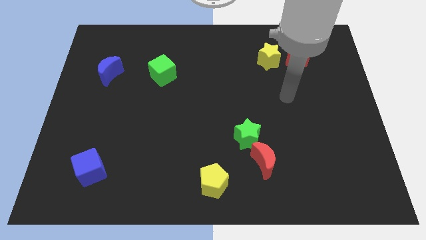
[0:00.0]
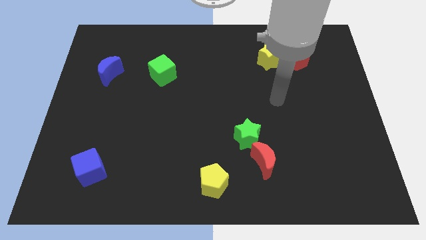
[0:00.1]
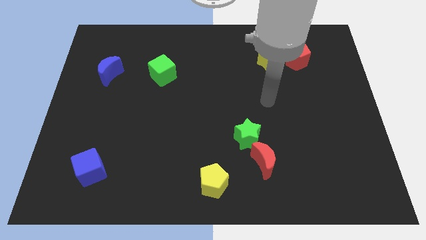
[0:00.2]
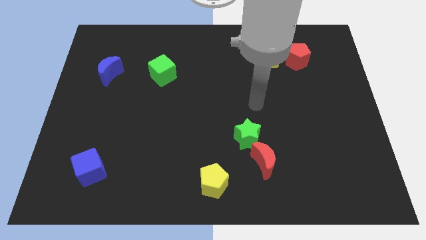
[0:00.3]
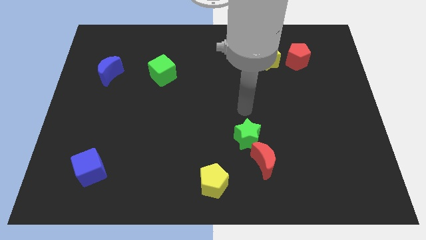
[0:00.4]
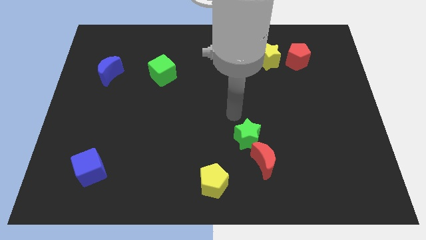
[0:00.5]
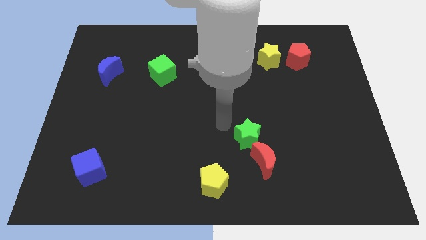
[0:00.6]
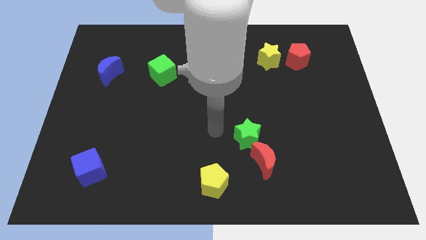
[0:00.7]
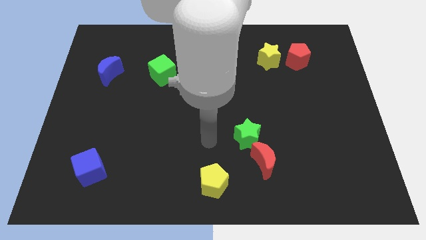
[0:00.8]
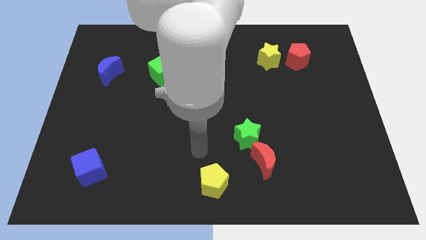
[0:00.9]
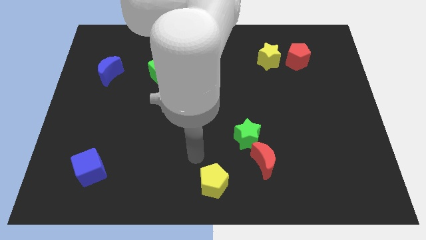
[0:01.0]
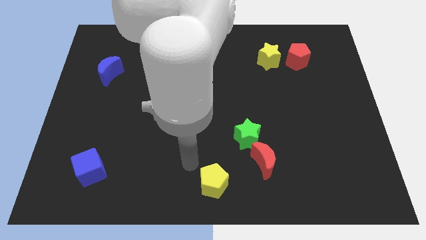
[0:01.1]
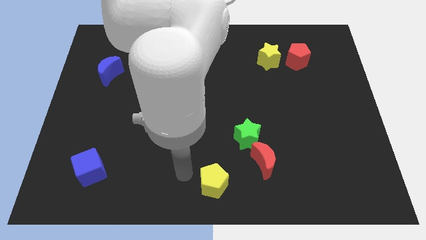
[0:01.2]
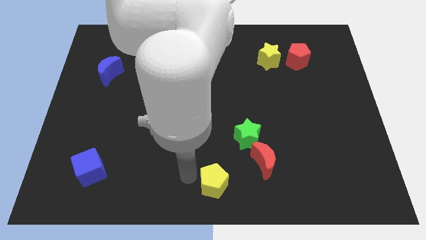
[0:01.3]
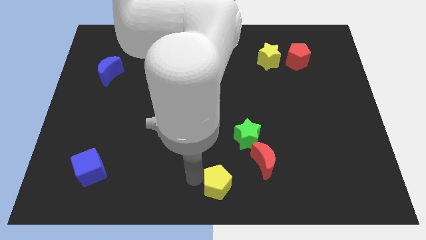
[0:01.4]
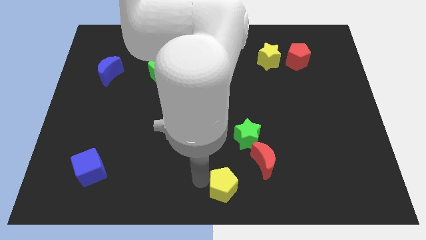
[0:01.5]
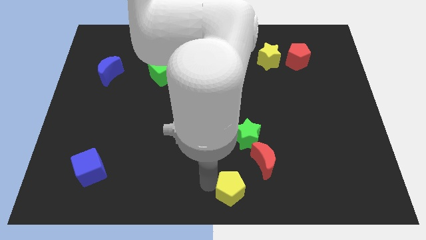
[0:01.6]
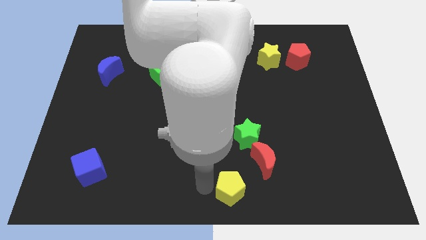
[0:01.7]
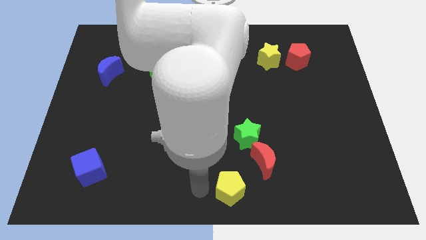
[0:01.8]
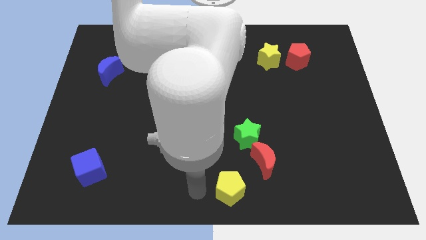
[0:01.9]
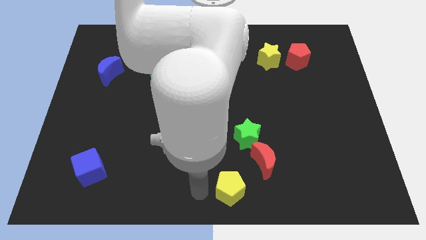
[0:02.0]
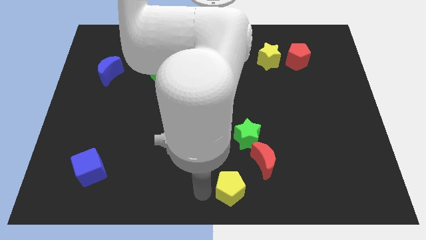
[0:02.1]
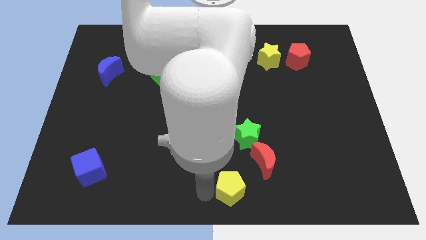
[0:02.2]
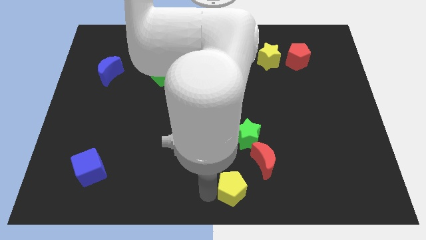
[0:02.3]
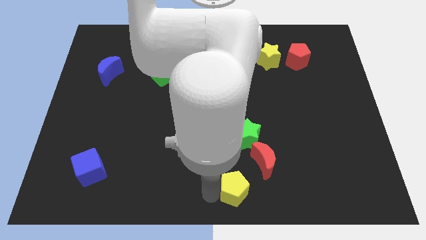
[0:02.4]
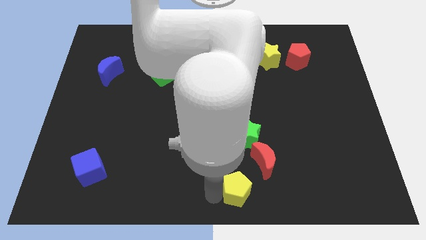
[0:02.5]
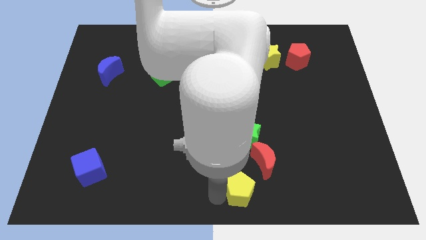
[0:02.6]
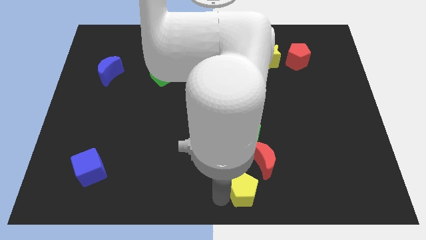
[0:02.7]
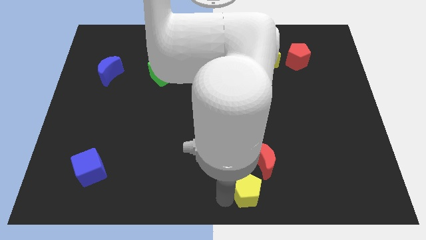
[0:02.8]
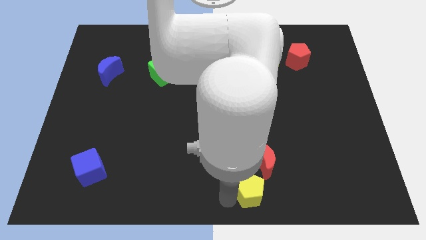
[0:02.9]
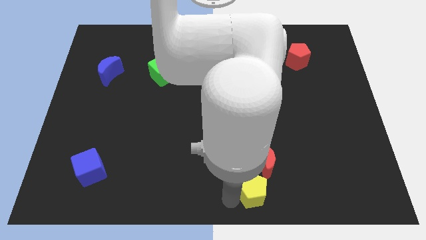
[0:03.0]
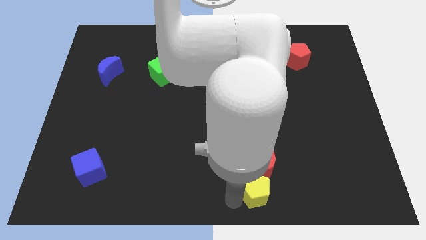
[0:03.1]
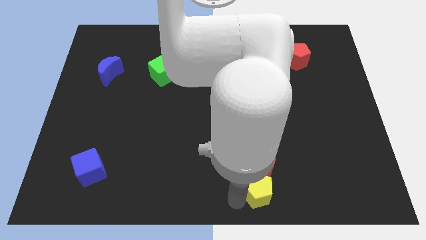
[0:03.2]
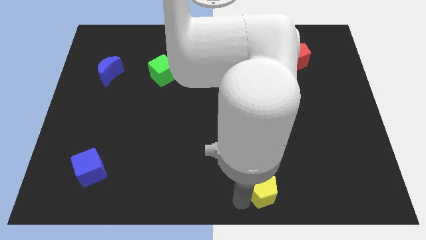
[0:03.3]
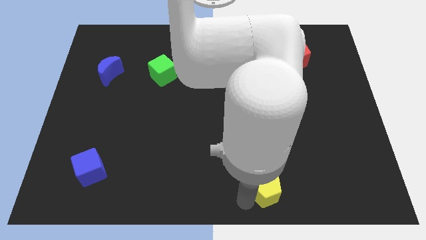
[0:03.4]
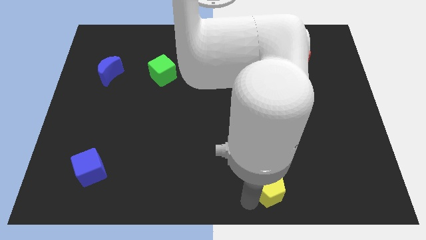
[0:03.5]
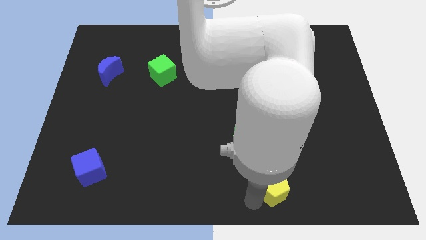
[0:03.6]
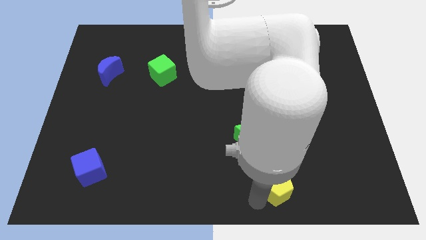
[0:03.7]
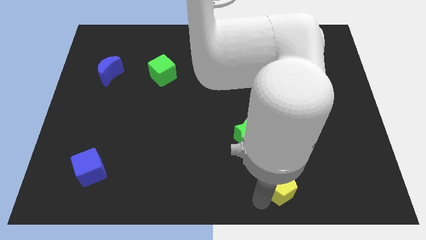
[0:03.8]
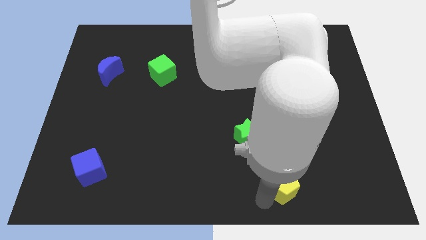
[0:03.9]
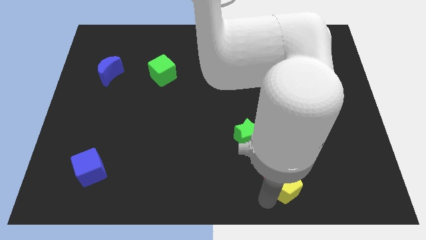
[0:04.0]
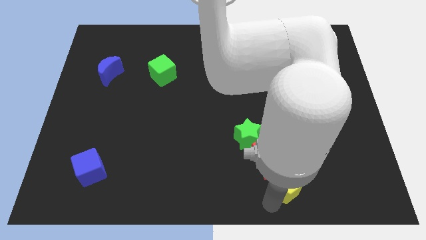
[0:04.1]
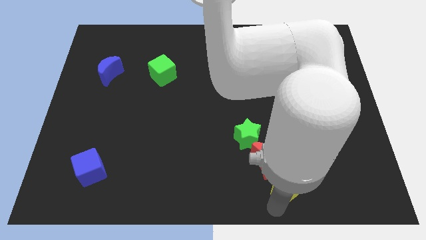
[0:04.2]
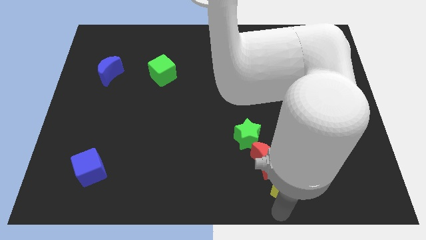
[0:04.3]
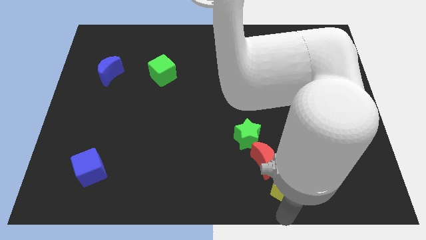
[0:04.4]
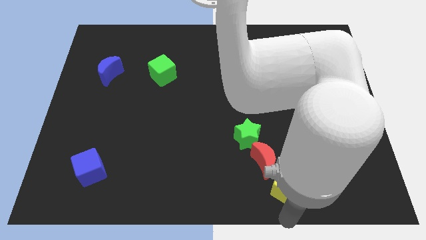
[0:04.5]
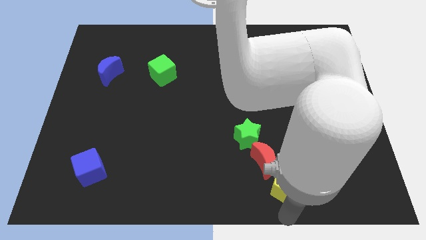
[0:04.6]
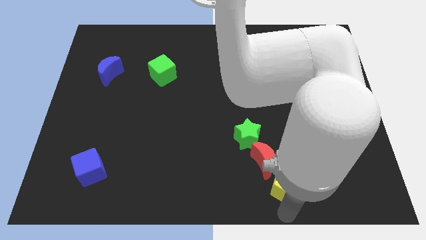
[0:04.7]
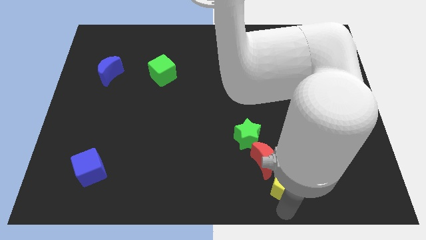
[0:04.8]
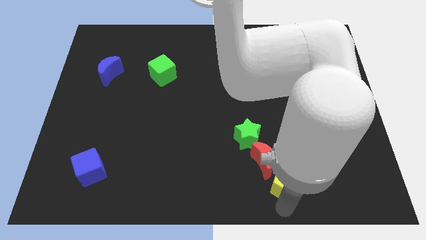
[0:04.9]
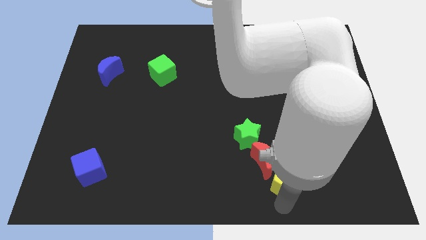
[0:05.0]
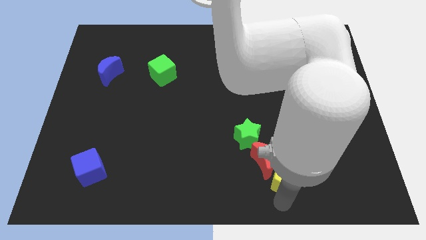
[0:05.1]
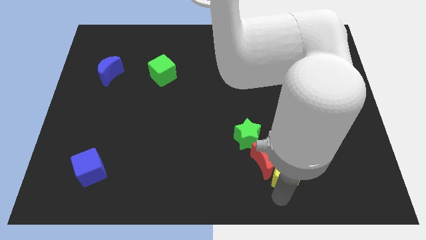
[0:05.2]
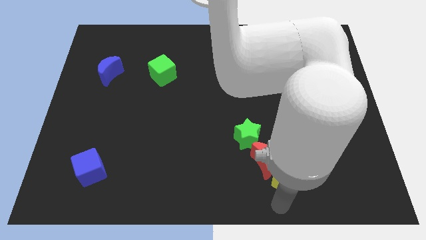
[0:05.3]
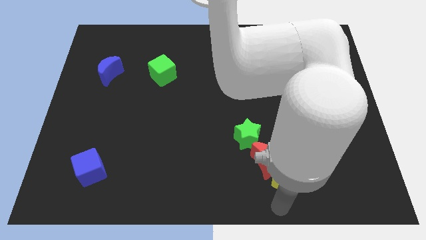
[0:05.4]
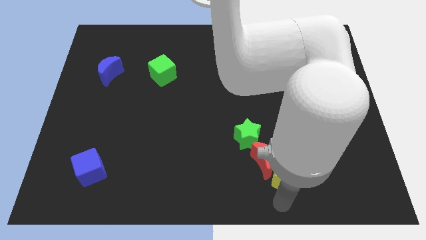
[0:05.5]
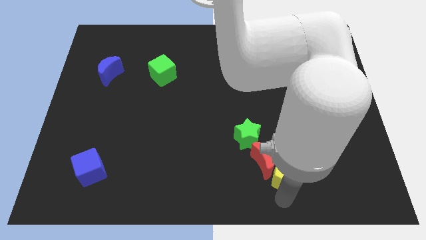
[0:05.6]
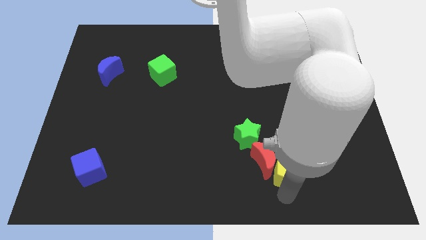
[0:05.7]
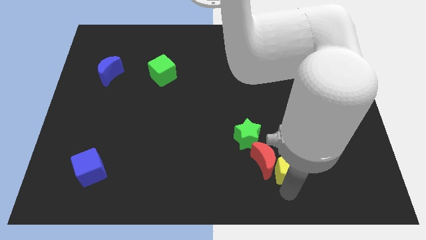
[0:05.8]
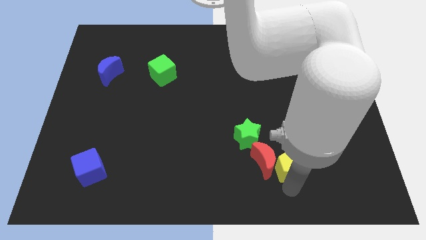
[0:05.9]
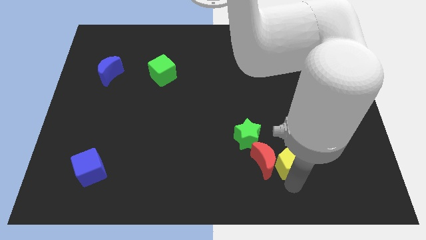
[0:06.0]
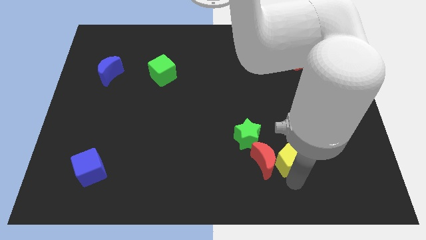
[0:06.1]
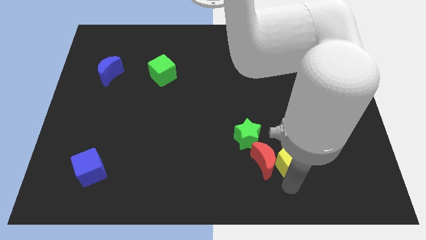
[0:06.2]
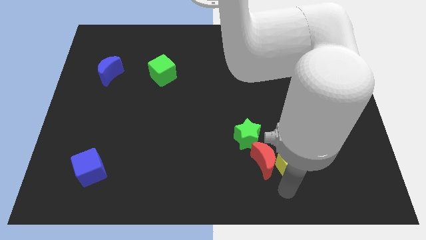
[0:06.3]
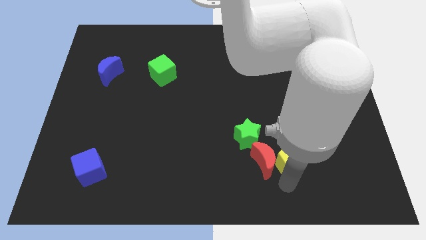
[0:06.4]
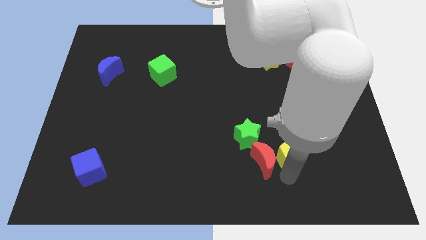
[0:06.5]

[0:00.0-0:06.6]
push the yellow pentagon to the right side of the green star

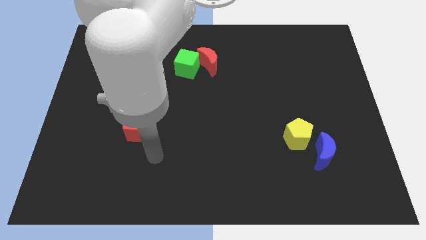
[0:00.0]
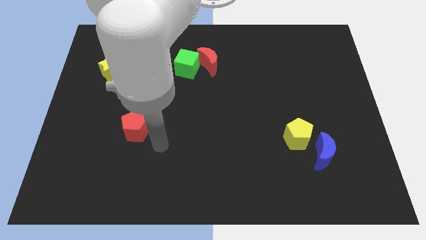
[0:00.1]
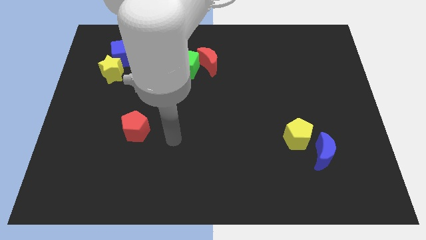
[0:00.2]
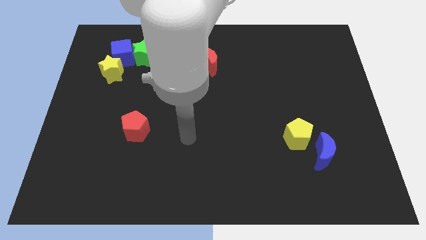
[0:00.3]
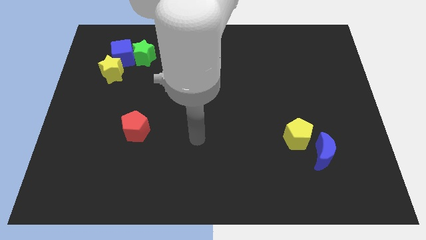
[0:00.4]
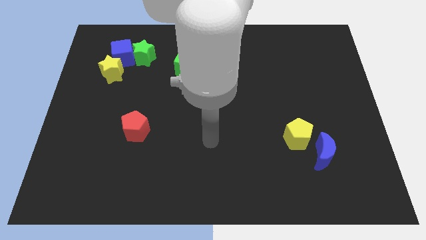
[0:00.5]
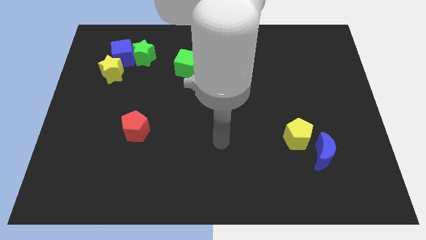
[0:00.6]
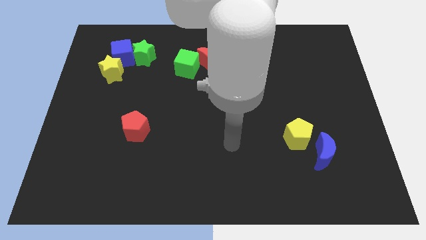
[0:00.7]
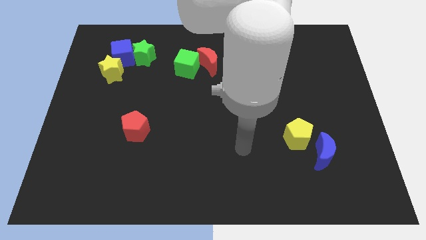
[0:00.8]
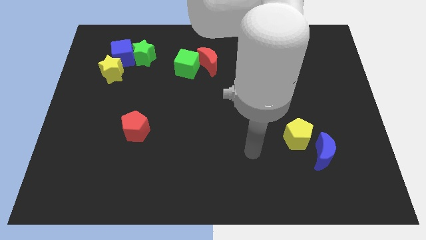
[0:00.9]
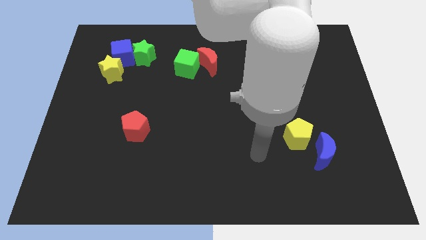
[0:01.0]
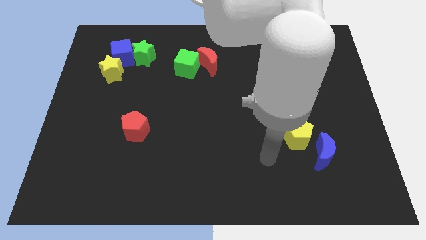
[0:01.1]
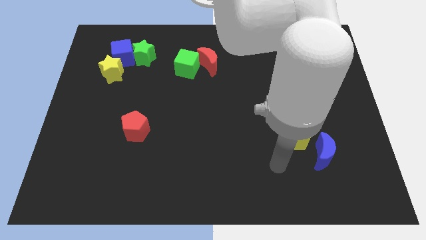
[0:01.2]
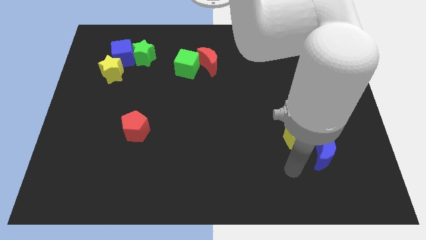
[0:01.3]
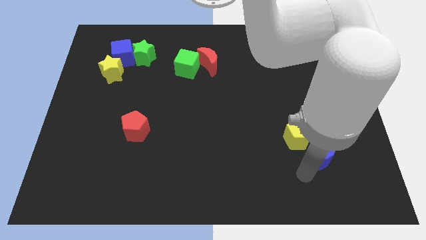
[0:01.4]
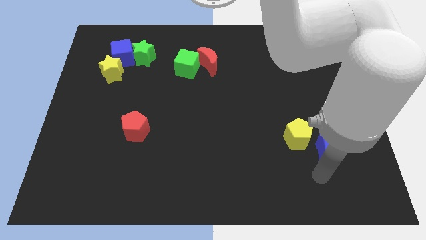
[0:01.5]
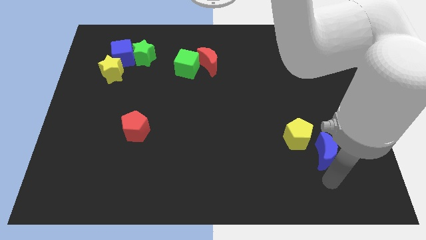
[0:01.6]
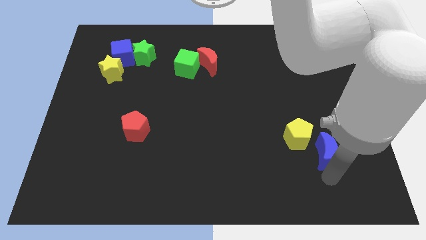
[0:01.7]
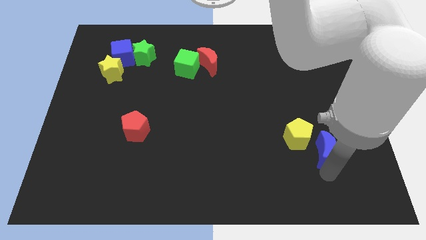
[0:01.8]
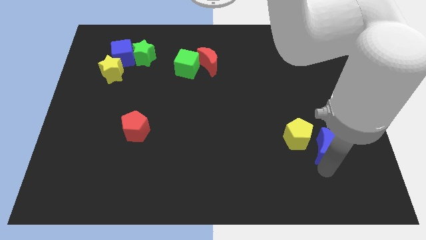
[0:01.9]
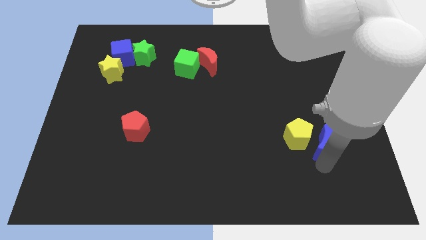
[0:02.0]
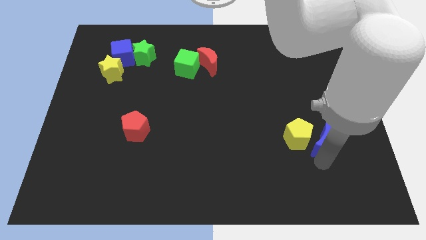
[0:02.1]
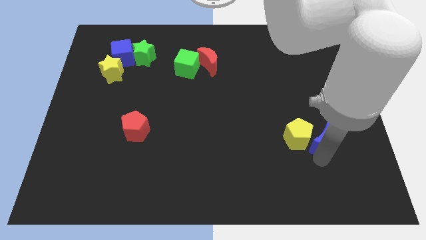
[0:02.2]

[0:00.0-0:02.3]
move the blue moon to the top right side of the yellow pentagon
